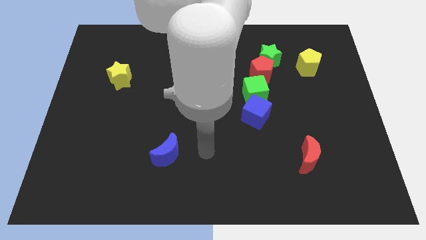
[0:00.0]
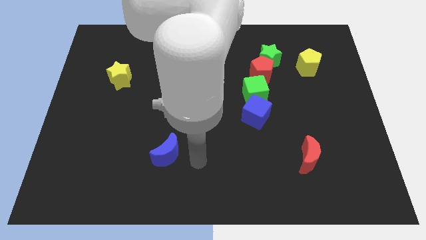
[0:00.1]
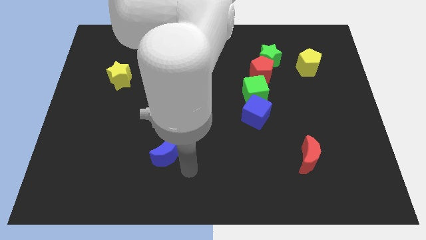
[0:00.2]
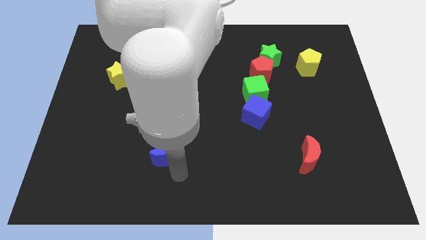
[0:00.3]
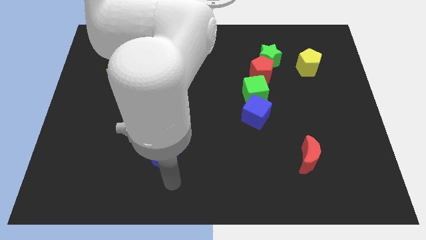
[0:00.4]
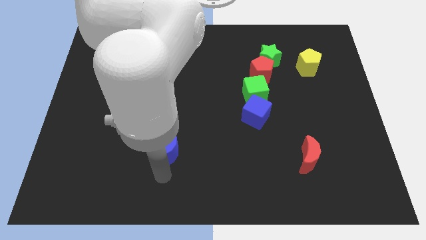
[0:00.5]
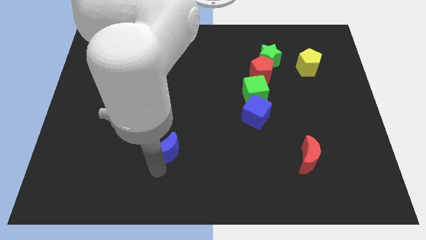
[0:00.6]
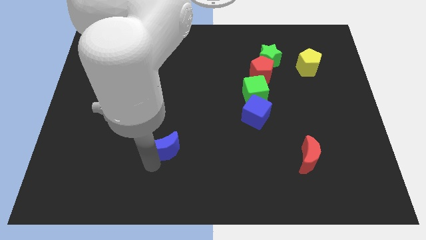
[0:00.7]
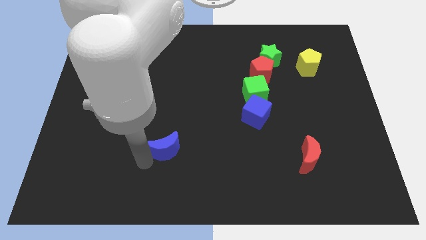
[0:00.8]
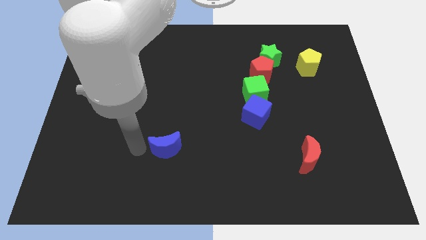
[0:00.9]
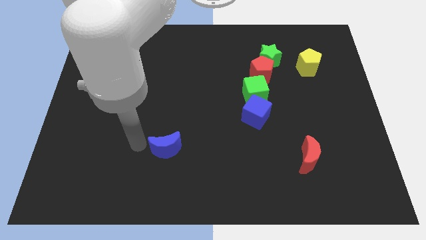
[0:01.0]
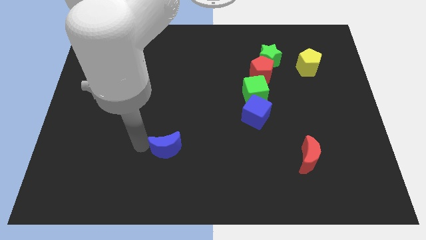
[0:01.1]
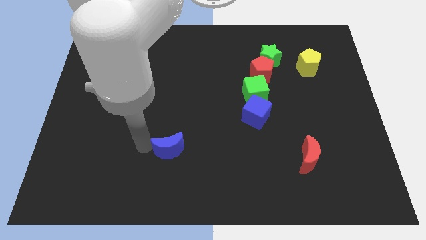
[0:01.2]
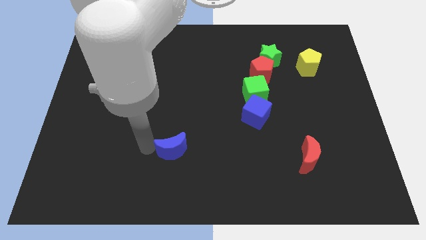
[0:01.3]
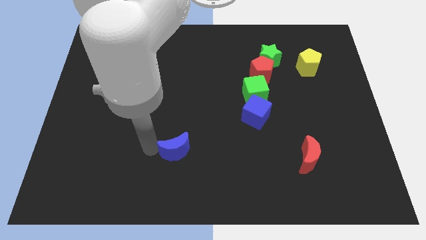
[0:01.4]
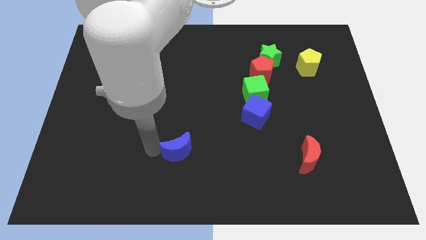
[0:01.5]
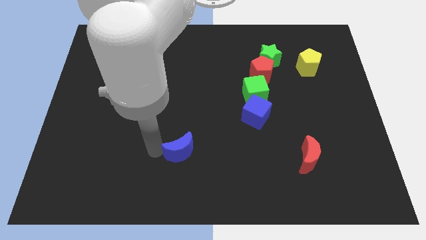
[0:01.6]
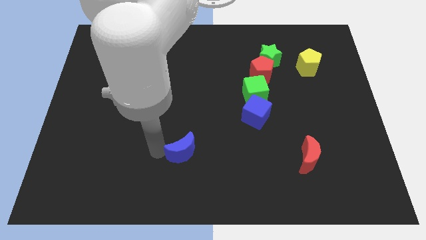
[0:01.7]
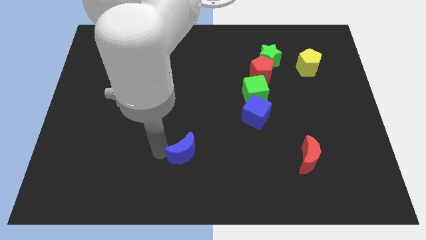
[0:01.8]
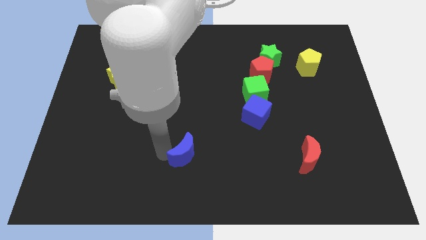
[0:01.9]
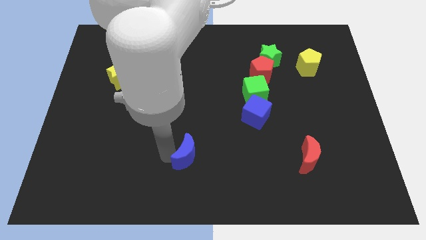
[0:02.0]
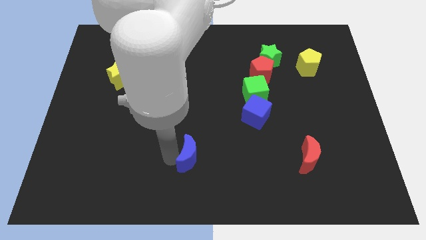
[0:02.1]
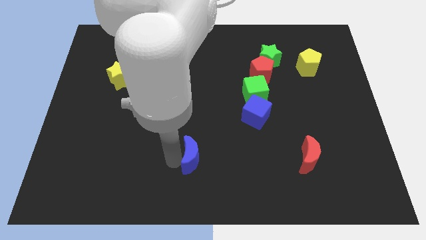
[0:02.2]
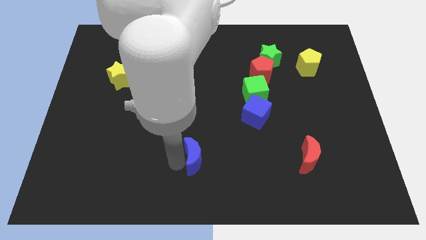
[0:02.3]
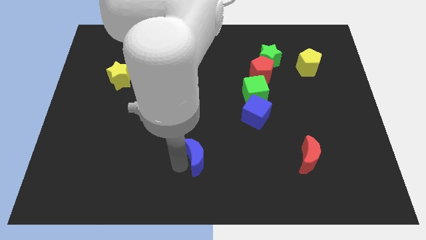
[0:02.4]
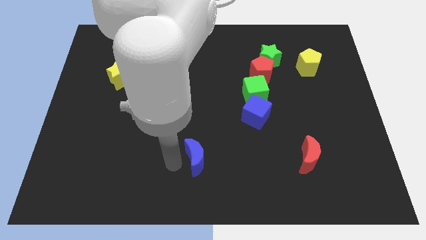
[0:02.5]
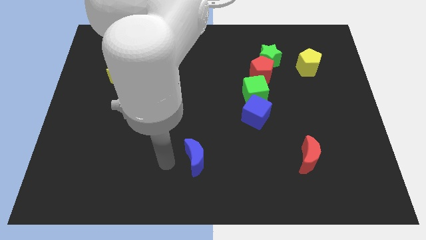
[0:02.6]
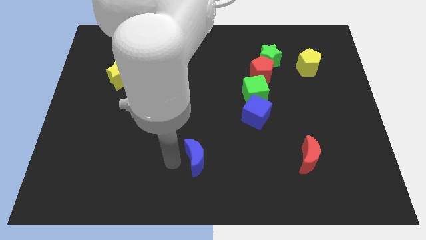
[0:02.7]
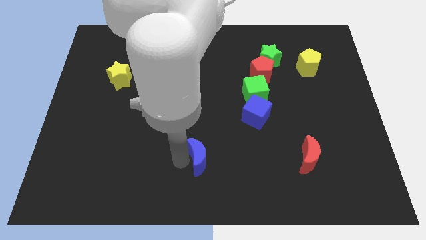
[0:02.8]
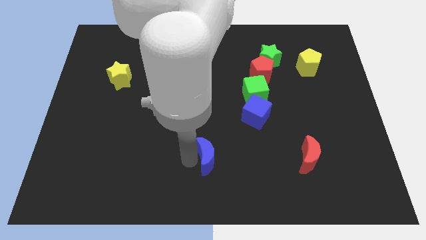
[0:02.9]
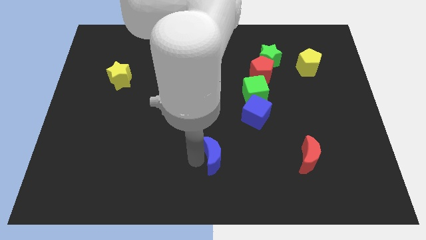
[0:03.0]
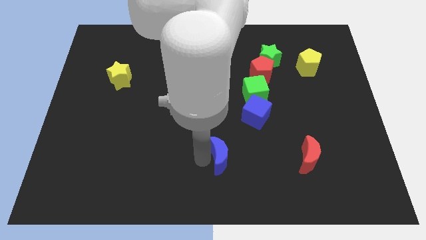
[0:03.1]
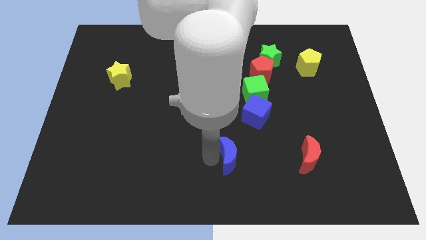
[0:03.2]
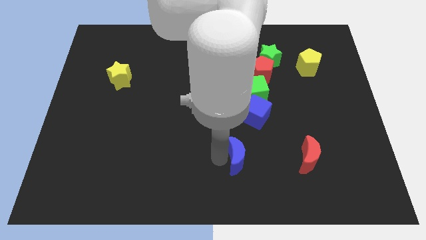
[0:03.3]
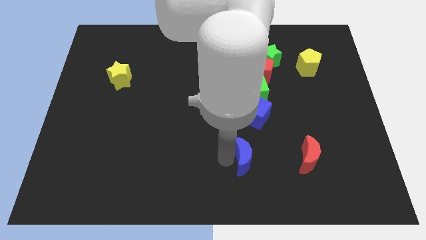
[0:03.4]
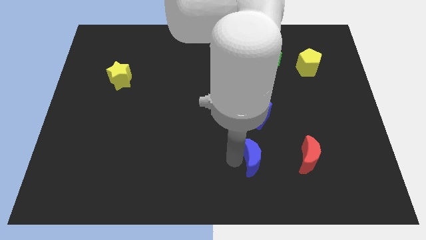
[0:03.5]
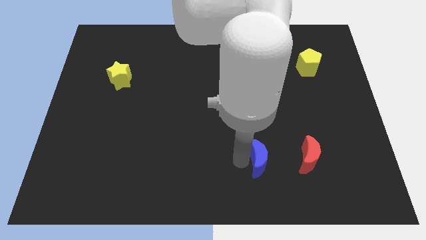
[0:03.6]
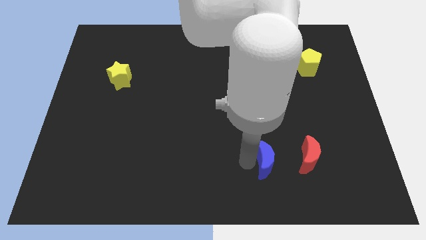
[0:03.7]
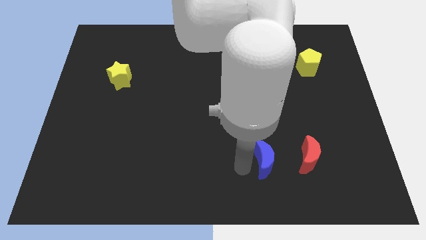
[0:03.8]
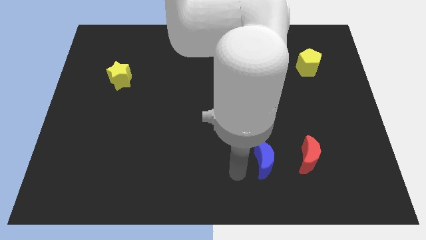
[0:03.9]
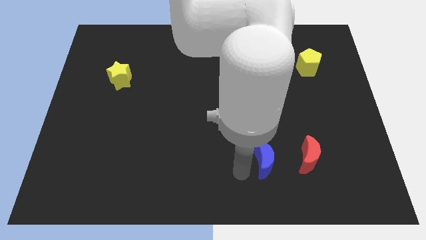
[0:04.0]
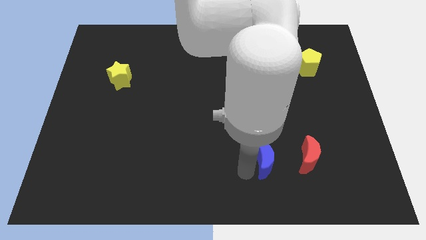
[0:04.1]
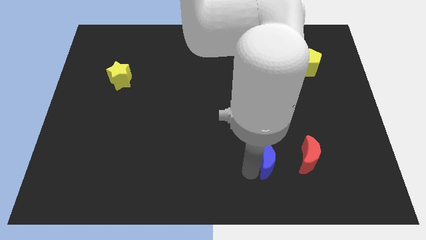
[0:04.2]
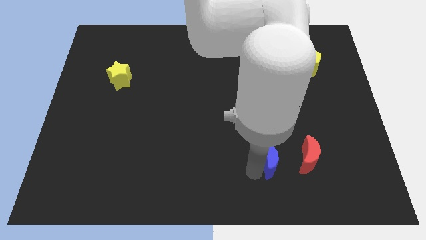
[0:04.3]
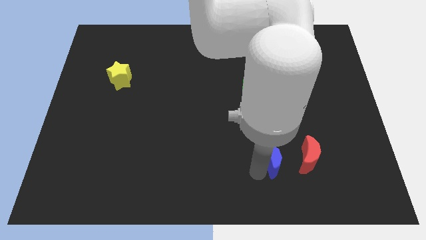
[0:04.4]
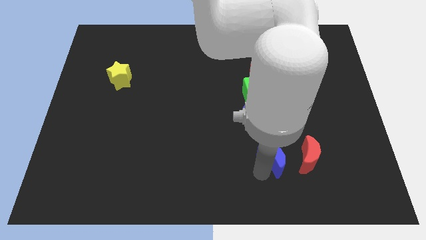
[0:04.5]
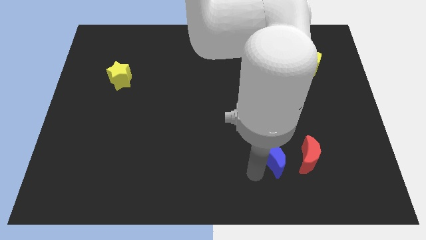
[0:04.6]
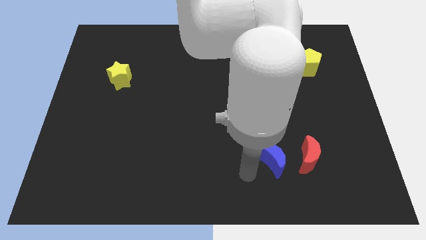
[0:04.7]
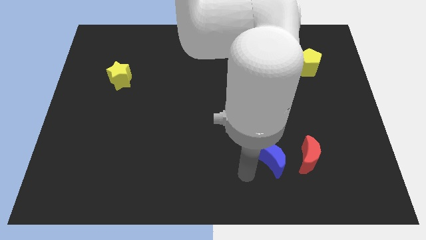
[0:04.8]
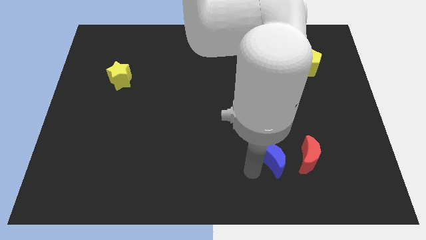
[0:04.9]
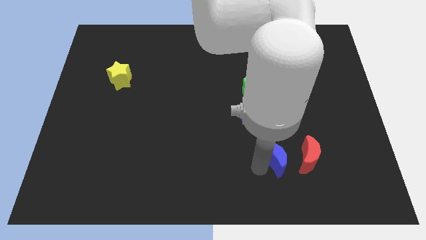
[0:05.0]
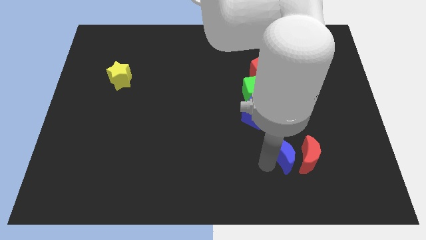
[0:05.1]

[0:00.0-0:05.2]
put the blue moon next to the red moon

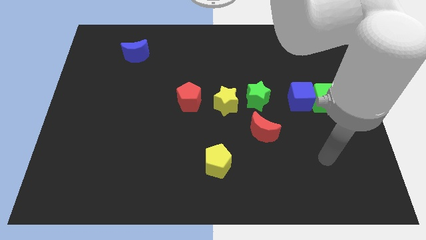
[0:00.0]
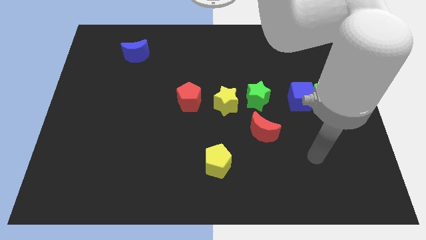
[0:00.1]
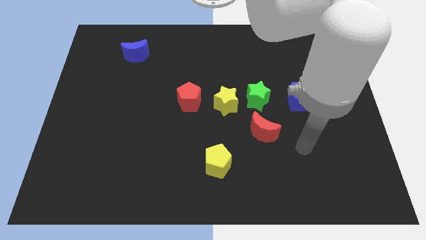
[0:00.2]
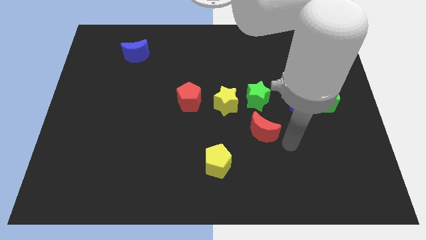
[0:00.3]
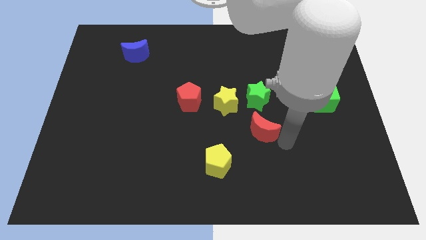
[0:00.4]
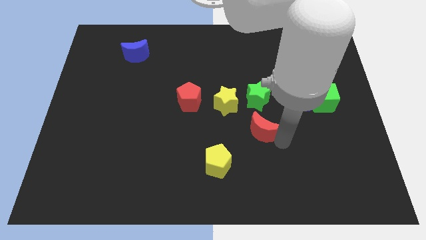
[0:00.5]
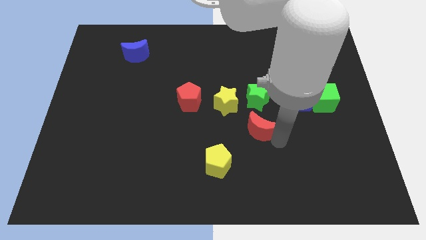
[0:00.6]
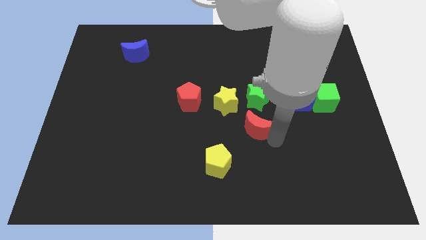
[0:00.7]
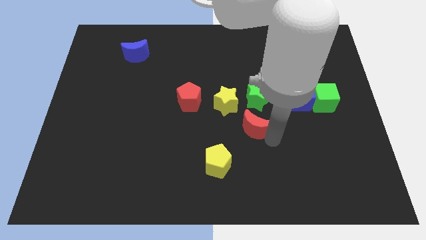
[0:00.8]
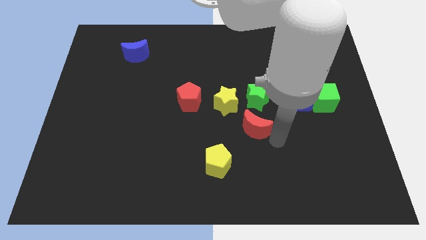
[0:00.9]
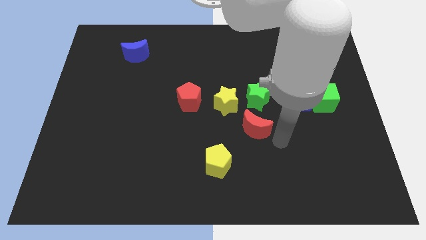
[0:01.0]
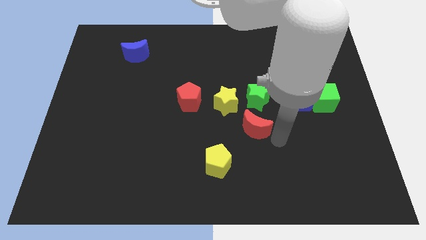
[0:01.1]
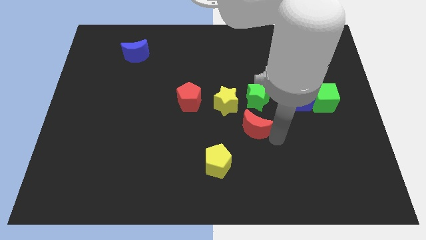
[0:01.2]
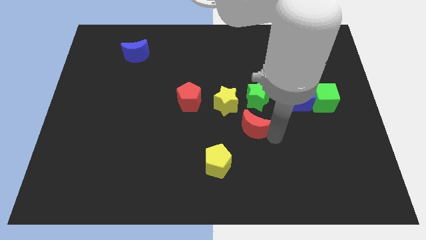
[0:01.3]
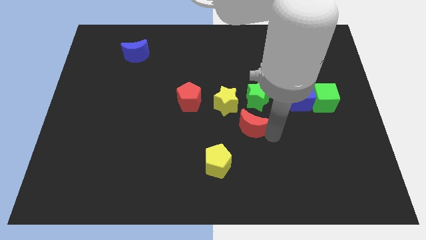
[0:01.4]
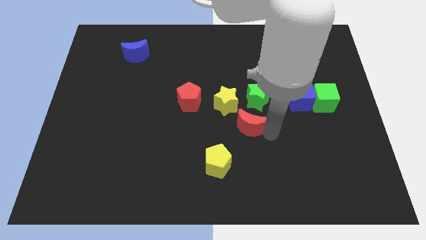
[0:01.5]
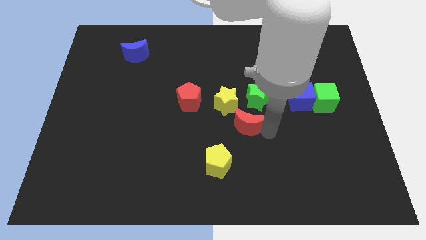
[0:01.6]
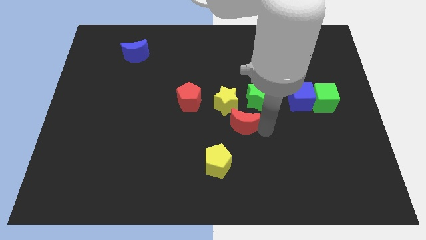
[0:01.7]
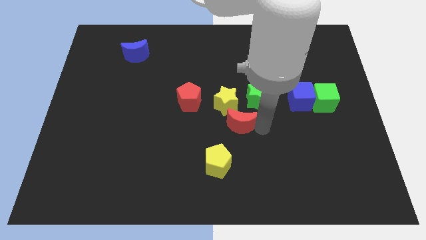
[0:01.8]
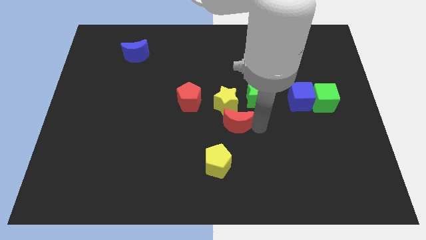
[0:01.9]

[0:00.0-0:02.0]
slide the red moon towards the yellow star

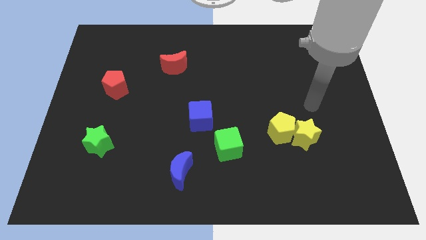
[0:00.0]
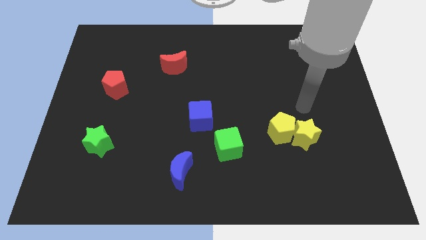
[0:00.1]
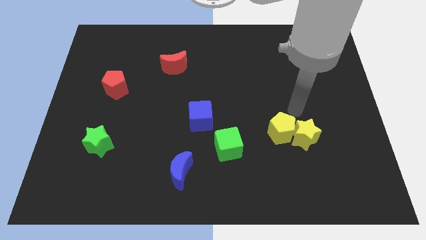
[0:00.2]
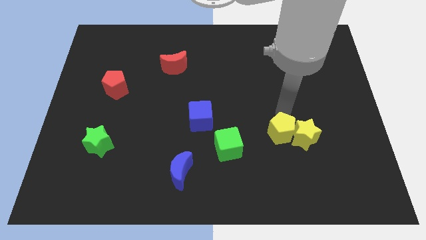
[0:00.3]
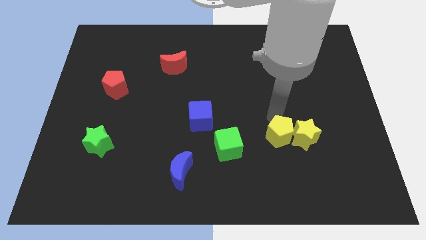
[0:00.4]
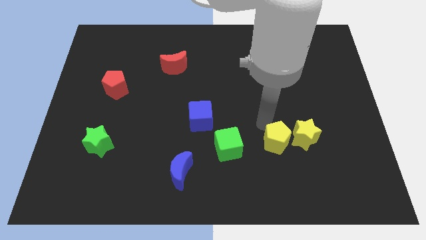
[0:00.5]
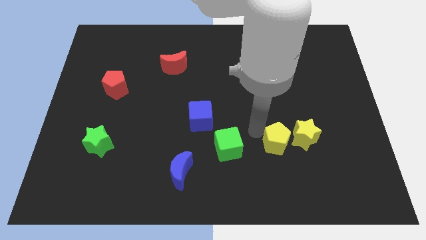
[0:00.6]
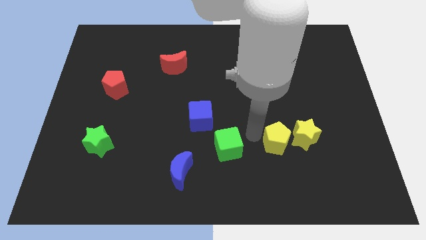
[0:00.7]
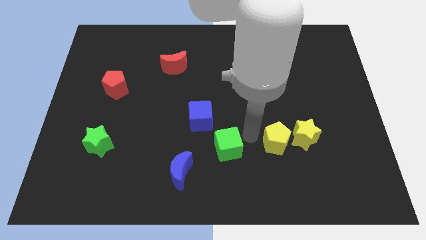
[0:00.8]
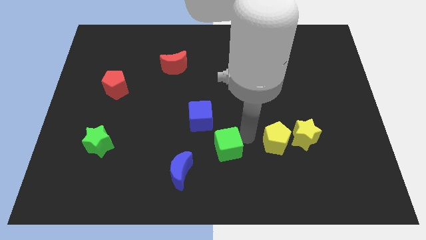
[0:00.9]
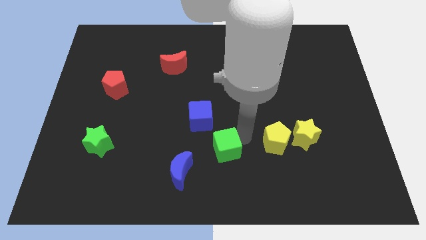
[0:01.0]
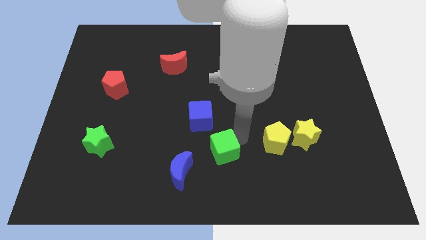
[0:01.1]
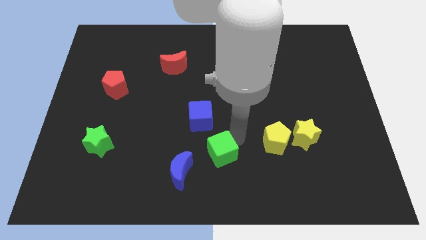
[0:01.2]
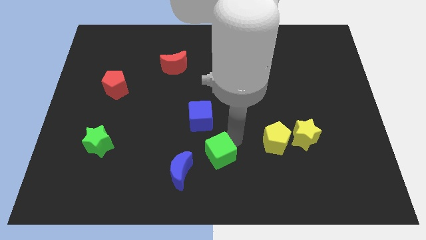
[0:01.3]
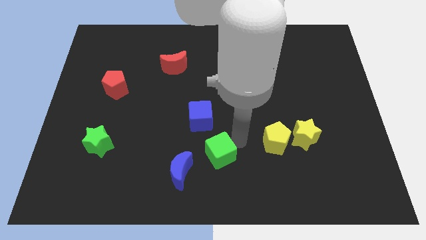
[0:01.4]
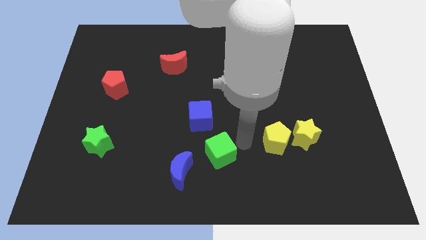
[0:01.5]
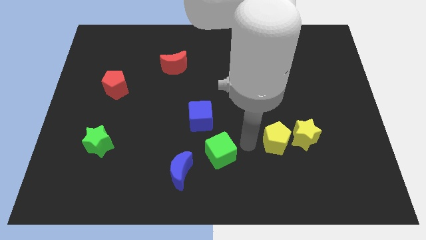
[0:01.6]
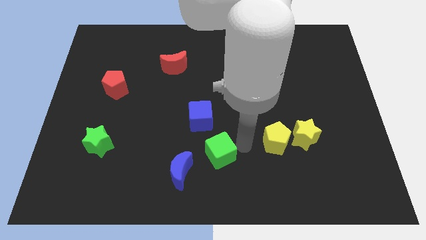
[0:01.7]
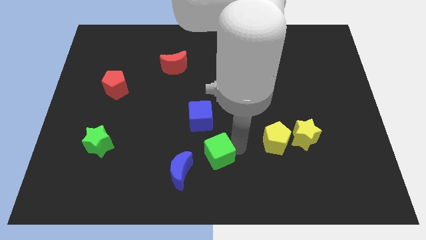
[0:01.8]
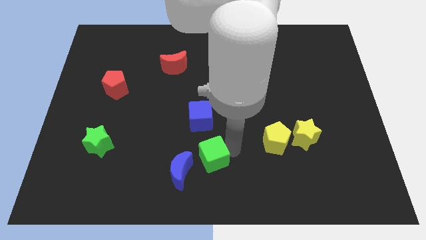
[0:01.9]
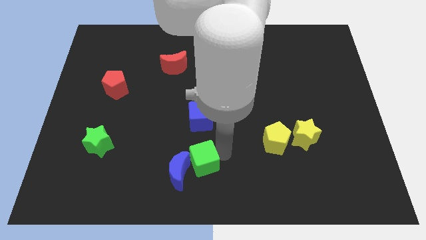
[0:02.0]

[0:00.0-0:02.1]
slide the green cube next to the blue moon
